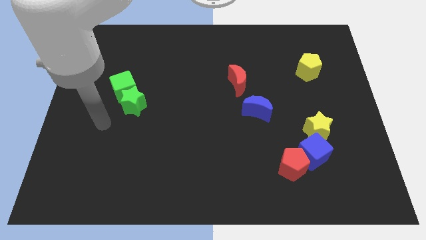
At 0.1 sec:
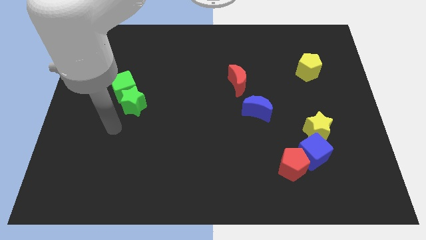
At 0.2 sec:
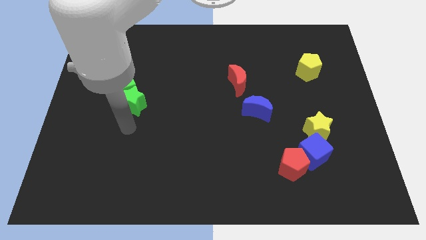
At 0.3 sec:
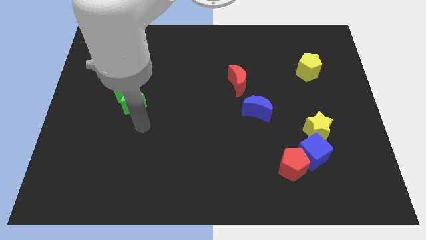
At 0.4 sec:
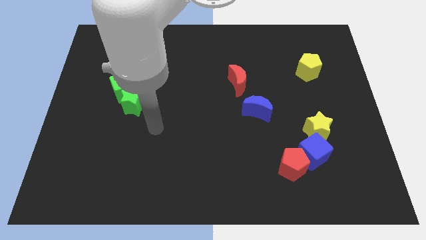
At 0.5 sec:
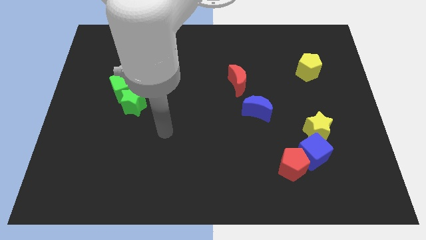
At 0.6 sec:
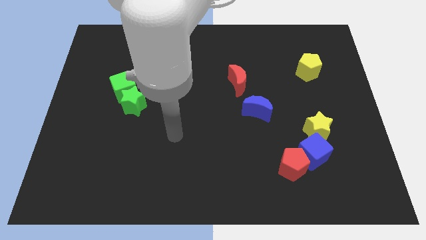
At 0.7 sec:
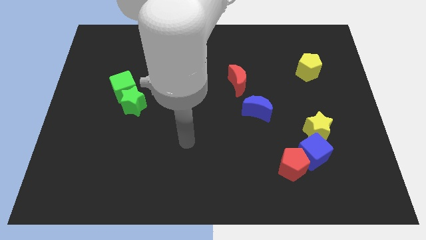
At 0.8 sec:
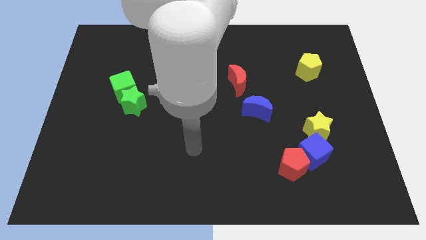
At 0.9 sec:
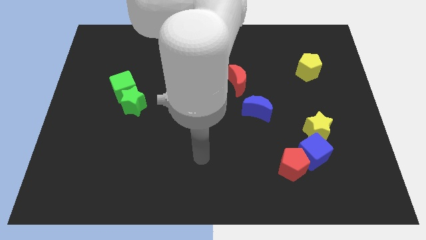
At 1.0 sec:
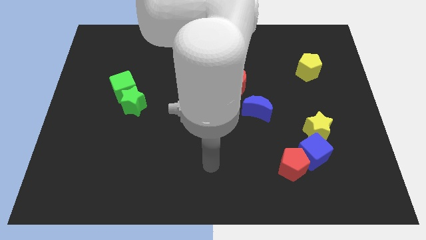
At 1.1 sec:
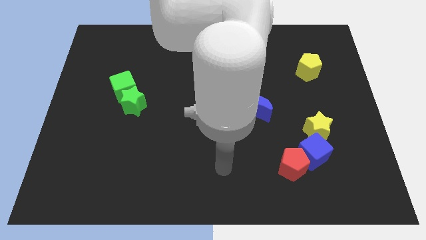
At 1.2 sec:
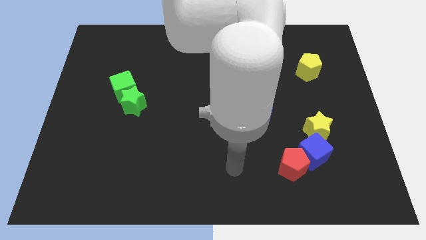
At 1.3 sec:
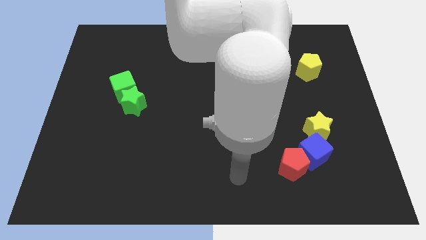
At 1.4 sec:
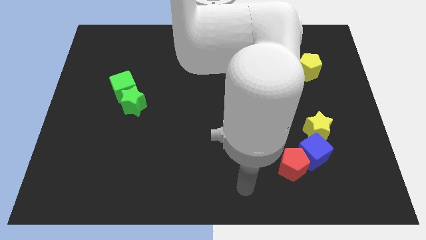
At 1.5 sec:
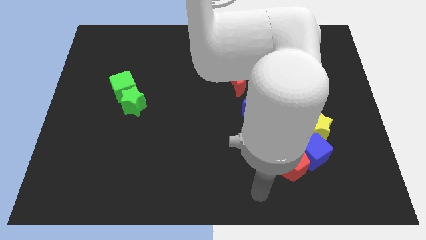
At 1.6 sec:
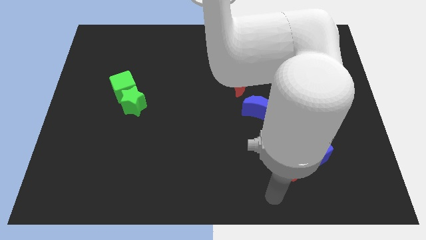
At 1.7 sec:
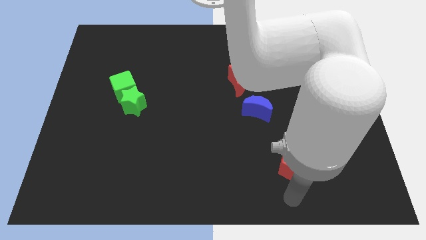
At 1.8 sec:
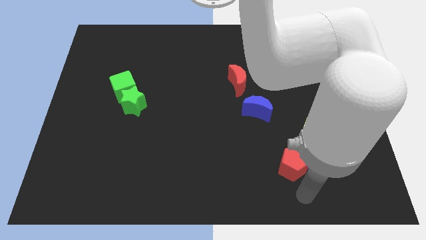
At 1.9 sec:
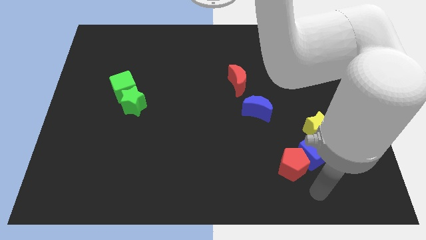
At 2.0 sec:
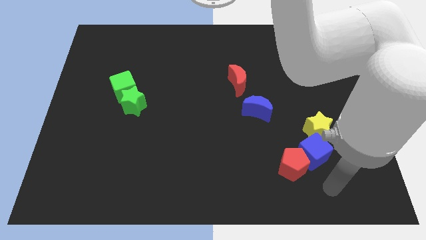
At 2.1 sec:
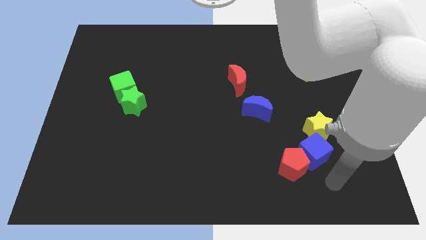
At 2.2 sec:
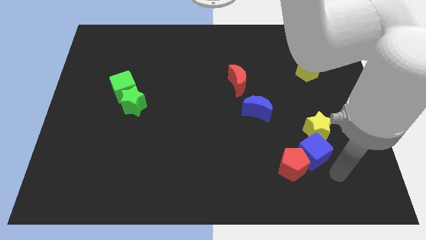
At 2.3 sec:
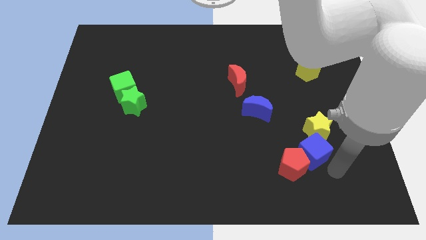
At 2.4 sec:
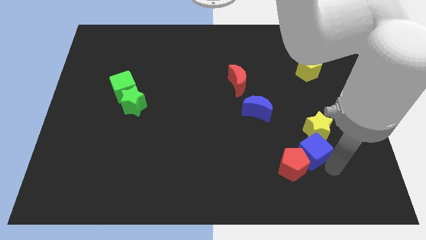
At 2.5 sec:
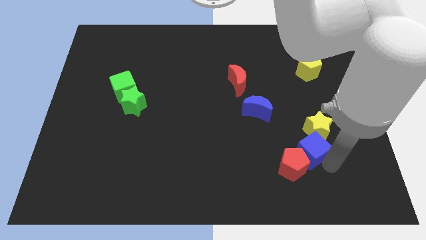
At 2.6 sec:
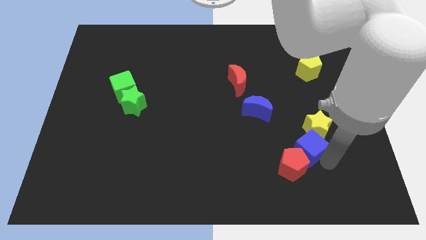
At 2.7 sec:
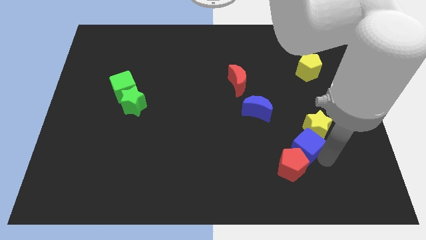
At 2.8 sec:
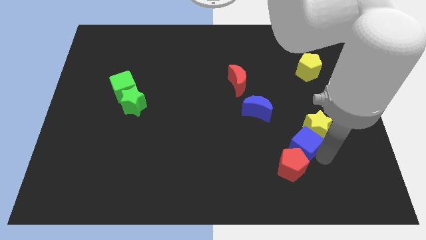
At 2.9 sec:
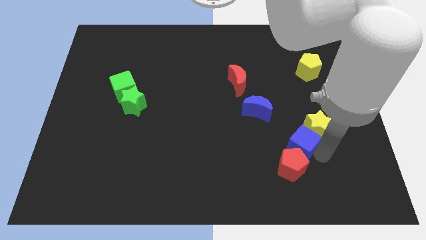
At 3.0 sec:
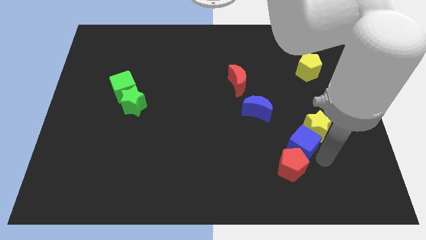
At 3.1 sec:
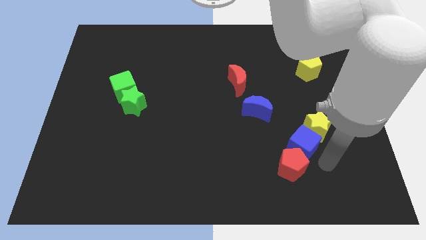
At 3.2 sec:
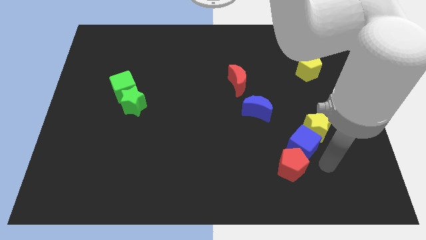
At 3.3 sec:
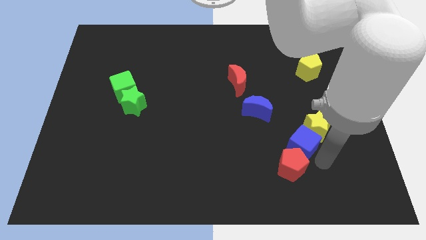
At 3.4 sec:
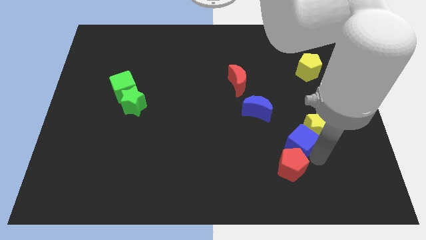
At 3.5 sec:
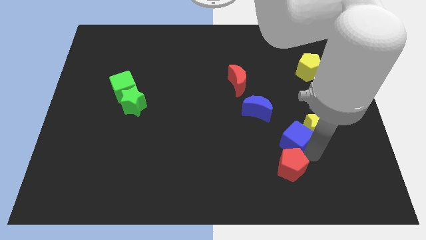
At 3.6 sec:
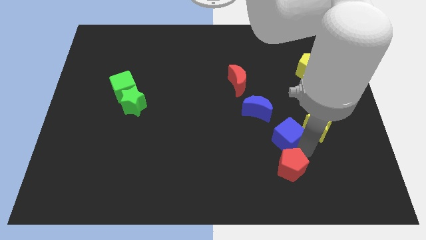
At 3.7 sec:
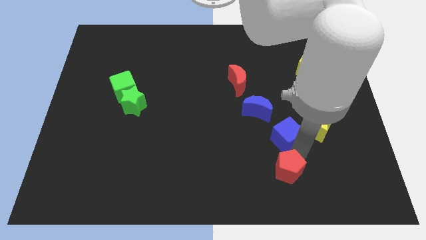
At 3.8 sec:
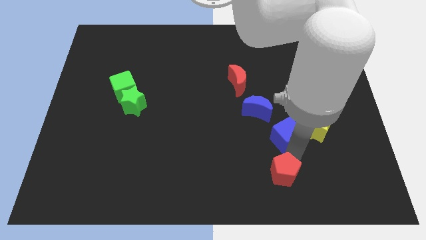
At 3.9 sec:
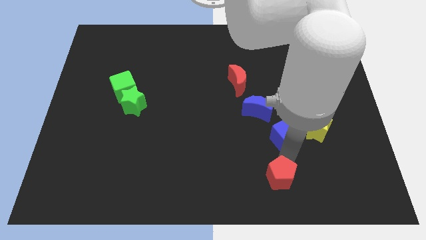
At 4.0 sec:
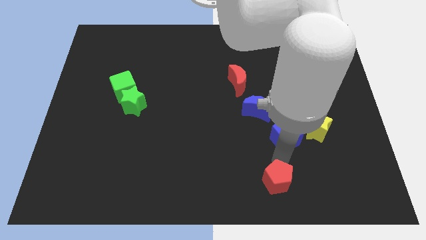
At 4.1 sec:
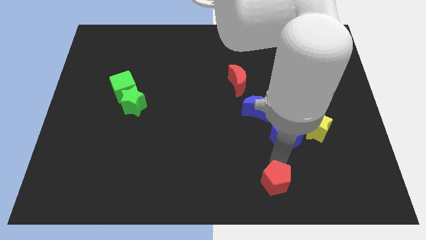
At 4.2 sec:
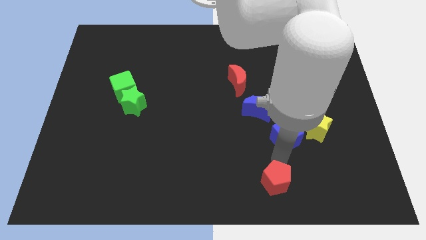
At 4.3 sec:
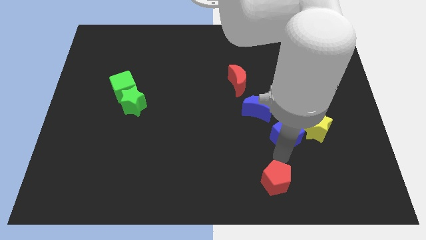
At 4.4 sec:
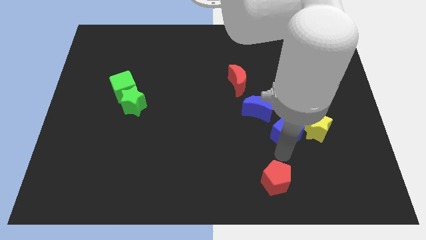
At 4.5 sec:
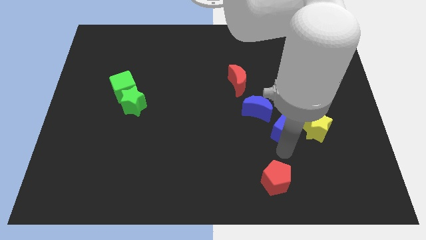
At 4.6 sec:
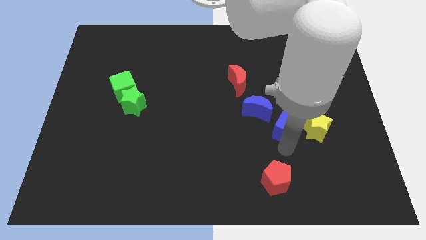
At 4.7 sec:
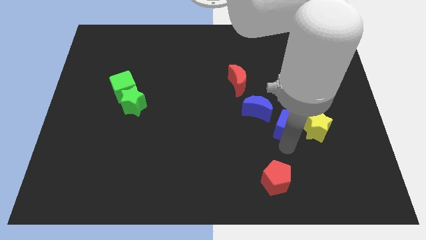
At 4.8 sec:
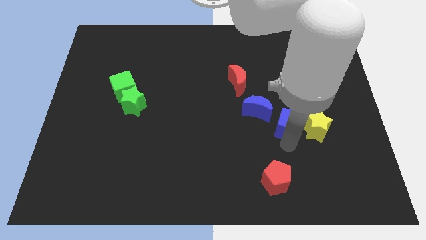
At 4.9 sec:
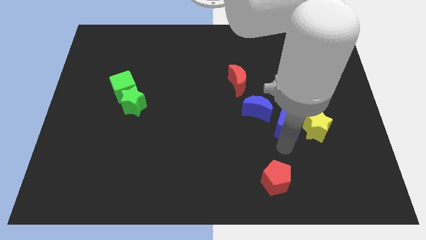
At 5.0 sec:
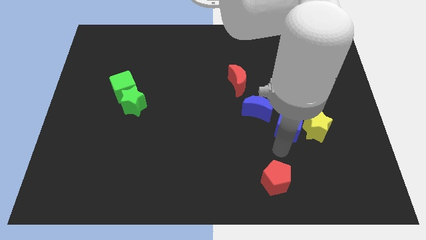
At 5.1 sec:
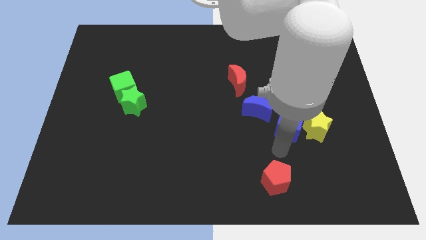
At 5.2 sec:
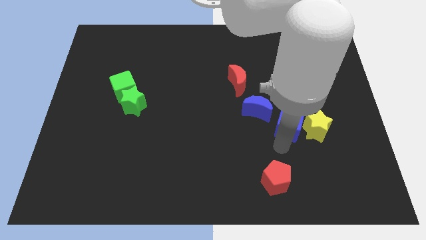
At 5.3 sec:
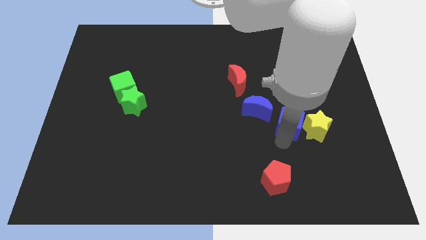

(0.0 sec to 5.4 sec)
slightly push the blue cube upwards

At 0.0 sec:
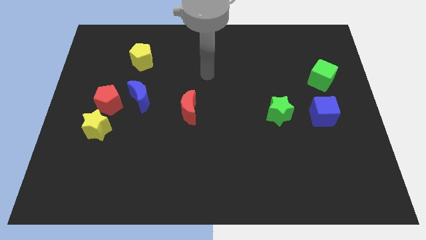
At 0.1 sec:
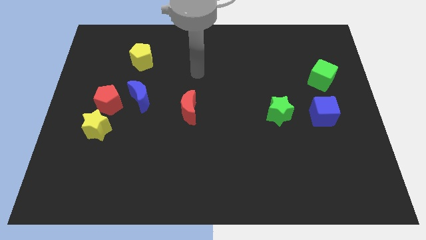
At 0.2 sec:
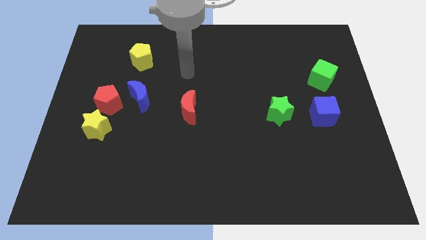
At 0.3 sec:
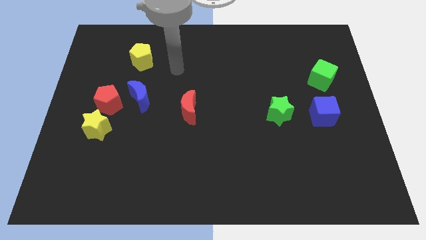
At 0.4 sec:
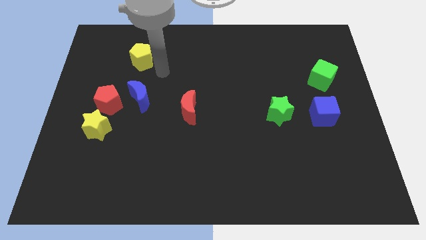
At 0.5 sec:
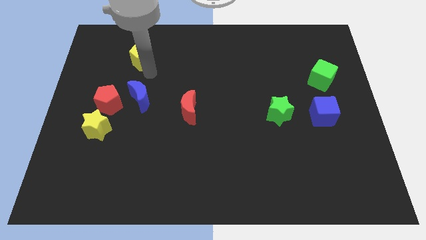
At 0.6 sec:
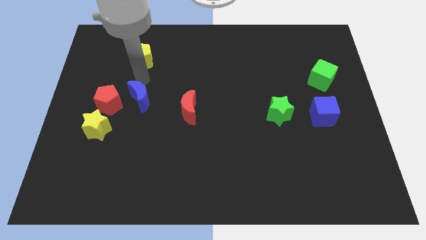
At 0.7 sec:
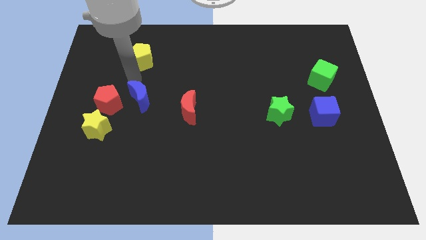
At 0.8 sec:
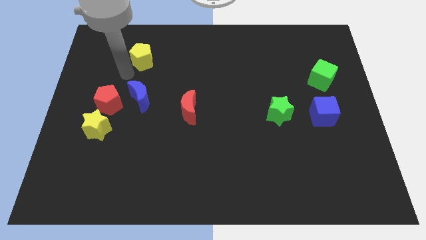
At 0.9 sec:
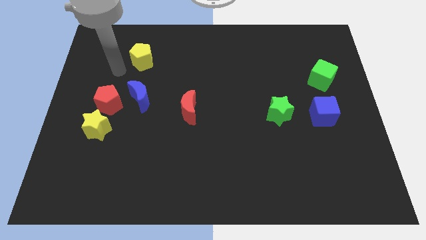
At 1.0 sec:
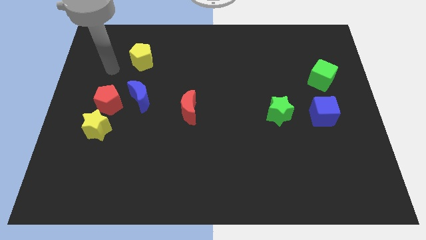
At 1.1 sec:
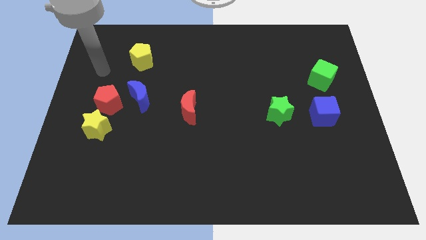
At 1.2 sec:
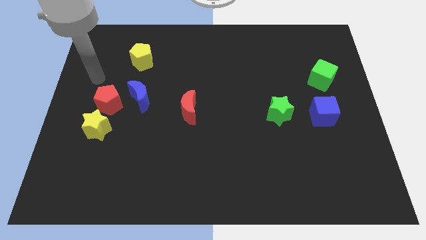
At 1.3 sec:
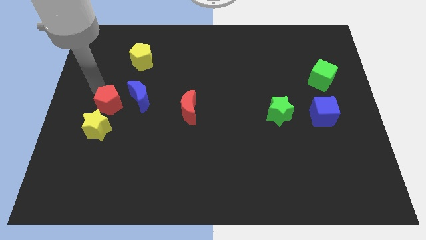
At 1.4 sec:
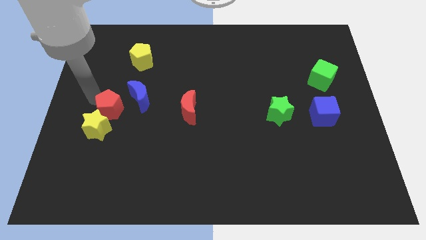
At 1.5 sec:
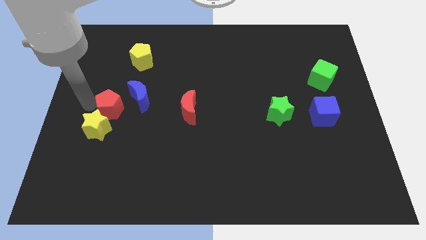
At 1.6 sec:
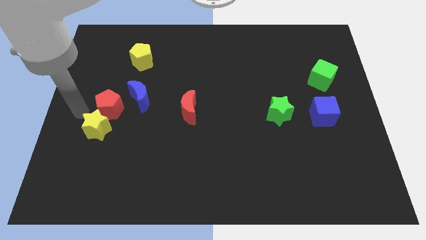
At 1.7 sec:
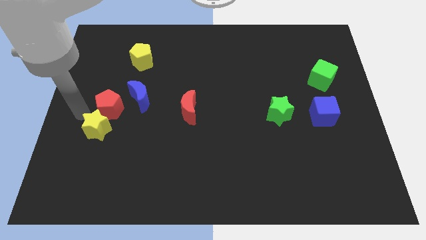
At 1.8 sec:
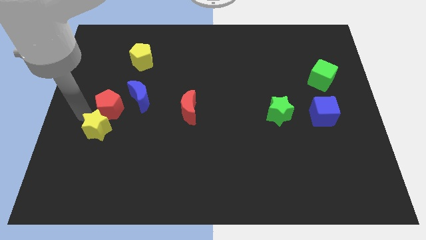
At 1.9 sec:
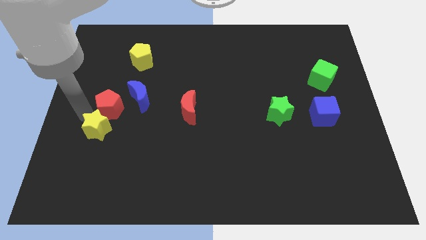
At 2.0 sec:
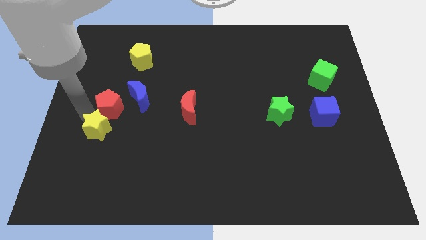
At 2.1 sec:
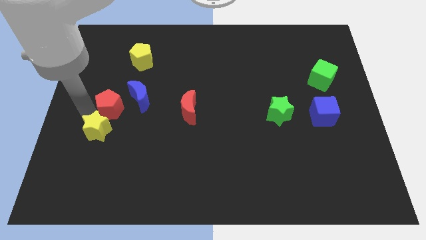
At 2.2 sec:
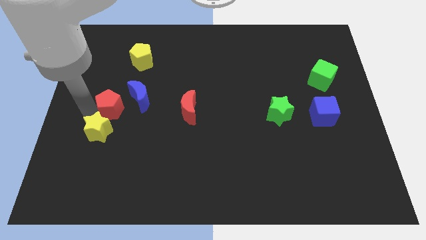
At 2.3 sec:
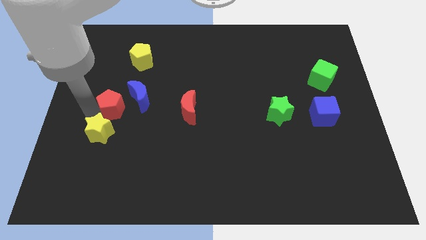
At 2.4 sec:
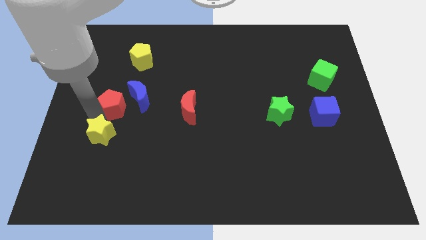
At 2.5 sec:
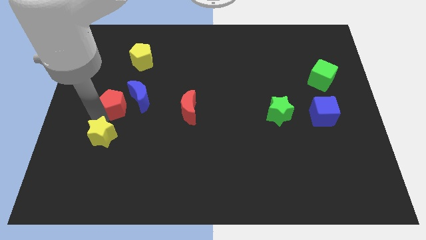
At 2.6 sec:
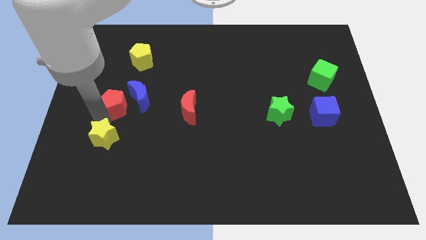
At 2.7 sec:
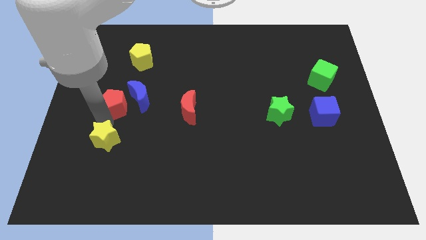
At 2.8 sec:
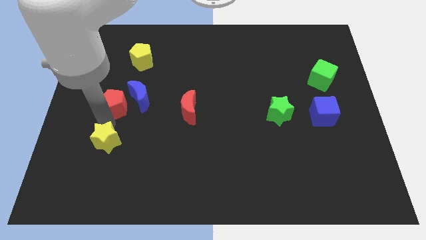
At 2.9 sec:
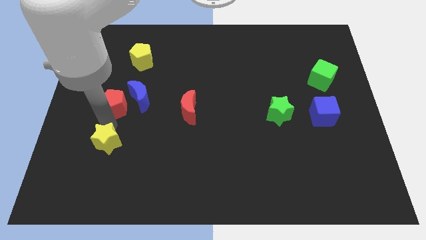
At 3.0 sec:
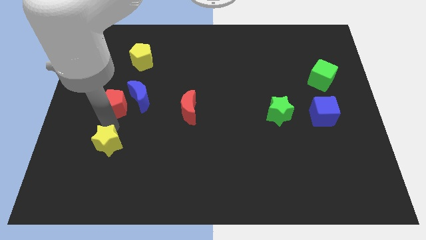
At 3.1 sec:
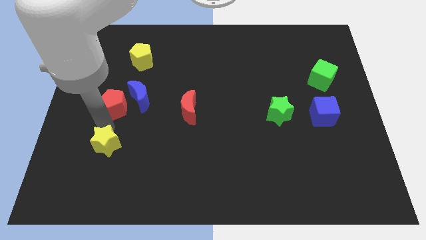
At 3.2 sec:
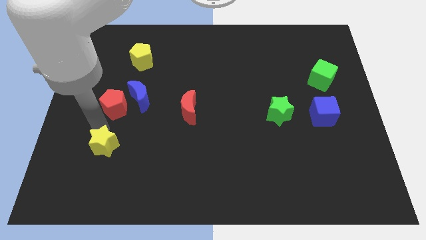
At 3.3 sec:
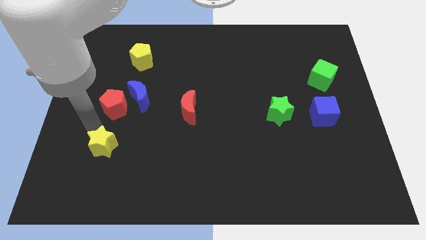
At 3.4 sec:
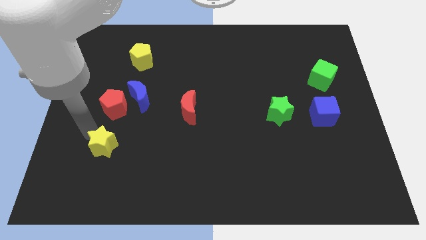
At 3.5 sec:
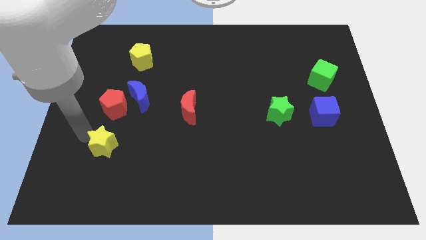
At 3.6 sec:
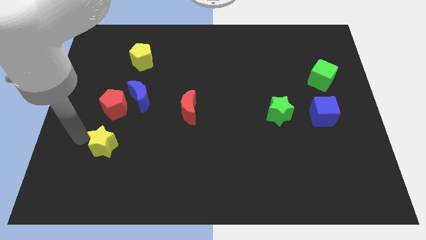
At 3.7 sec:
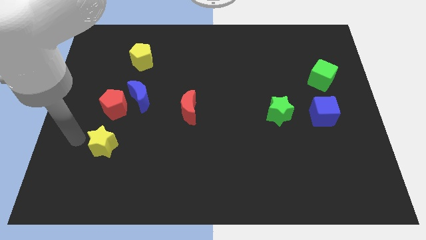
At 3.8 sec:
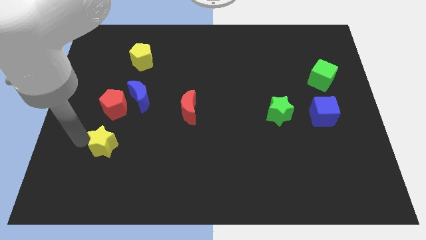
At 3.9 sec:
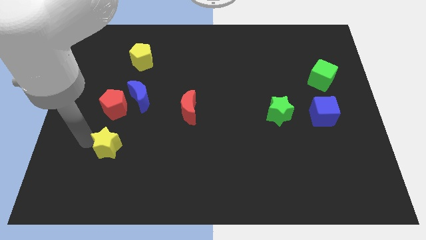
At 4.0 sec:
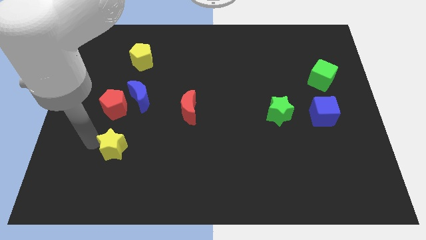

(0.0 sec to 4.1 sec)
move the yellow star a little down and to the right
